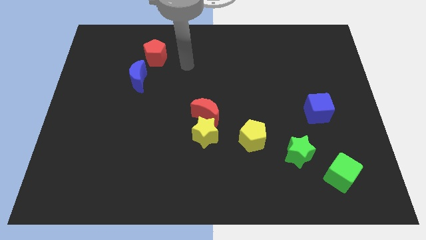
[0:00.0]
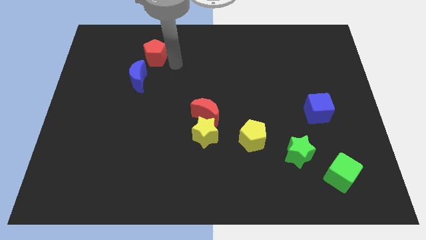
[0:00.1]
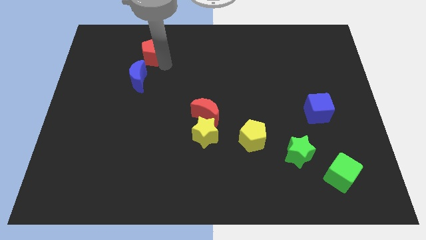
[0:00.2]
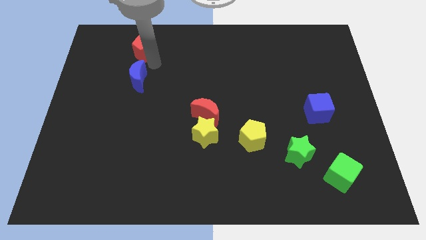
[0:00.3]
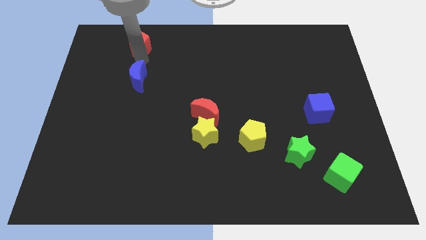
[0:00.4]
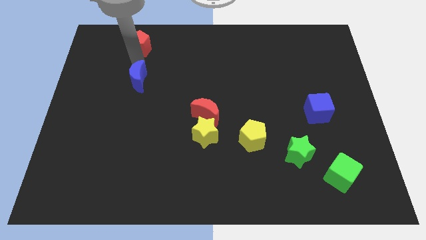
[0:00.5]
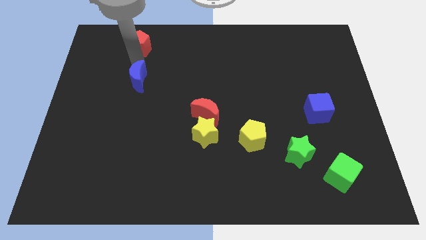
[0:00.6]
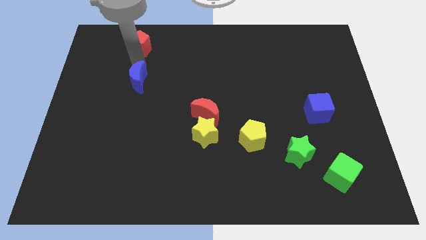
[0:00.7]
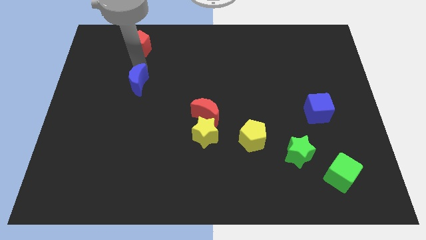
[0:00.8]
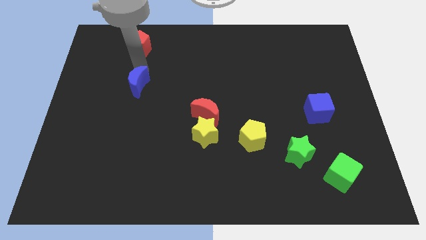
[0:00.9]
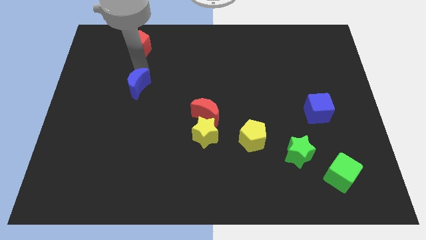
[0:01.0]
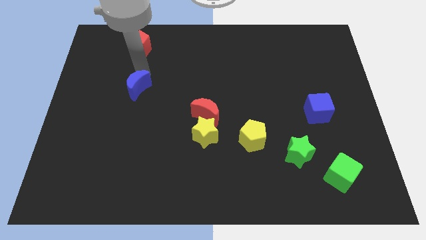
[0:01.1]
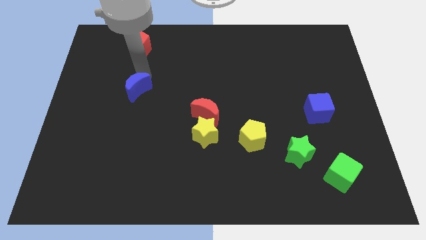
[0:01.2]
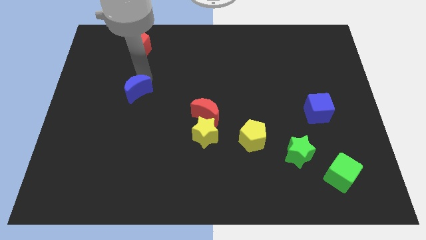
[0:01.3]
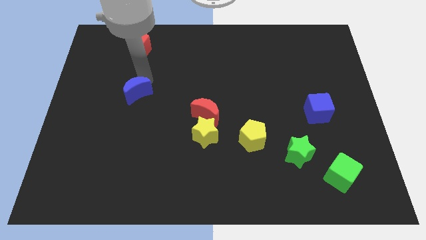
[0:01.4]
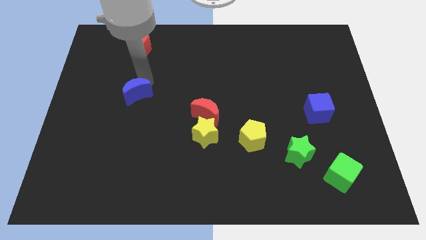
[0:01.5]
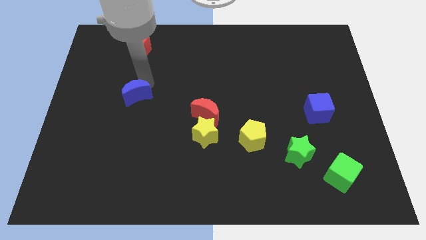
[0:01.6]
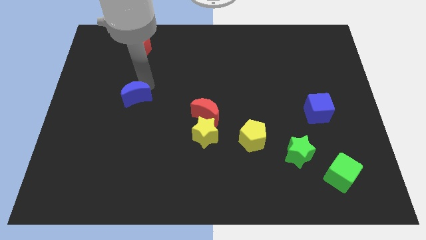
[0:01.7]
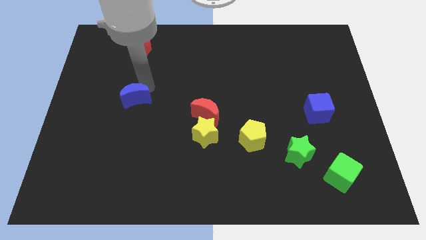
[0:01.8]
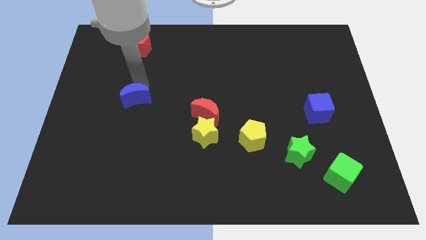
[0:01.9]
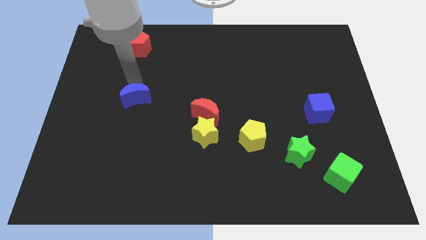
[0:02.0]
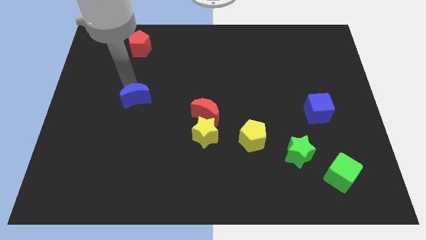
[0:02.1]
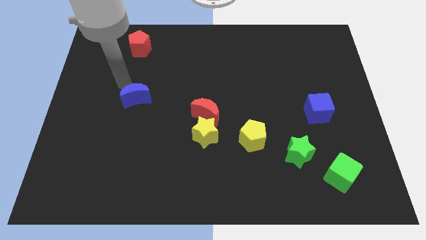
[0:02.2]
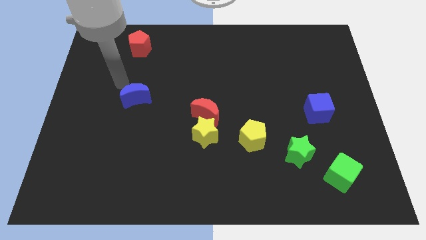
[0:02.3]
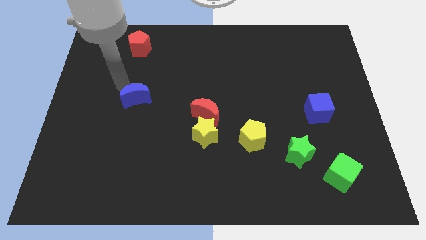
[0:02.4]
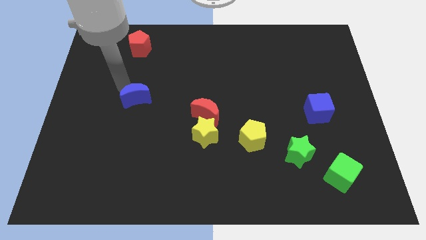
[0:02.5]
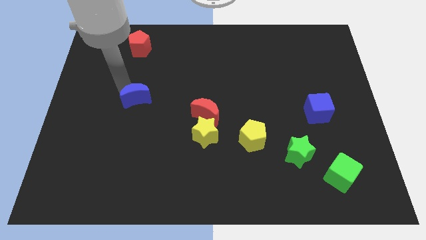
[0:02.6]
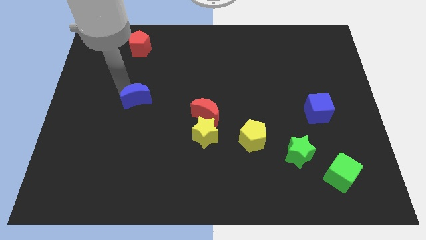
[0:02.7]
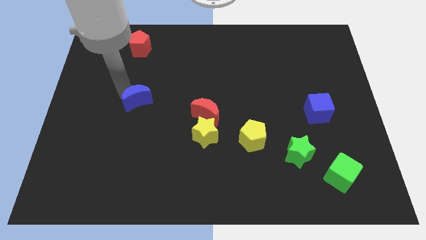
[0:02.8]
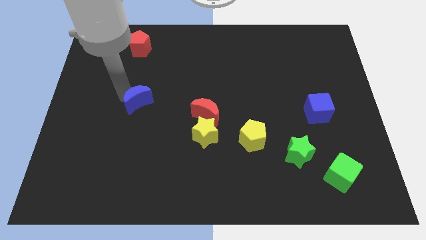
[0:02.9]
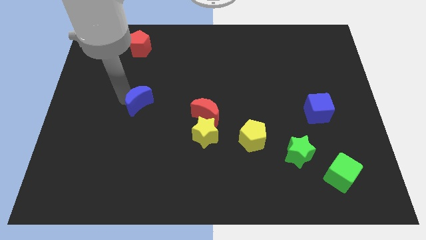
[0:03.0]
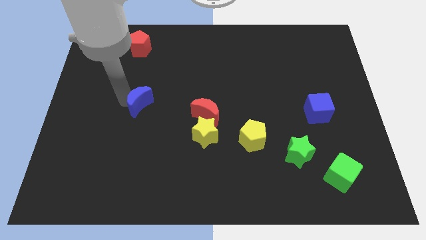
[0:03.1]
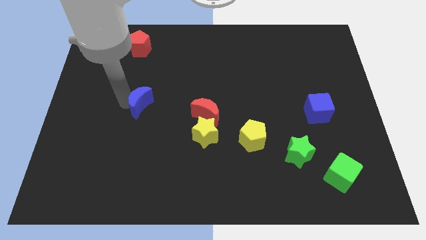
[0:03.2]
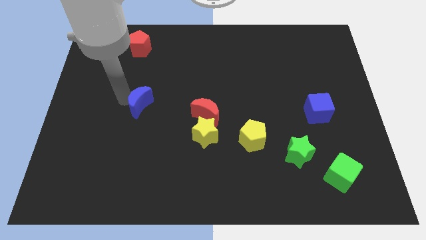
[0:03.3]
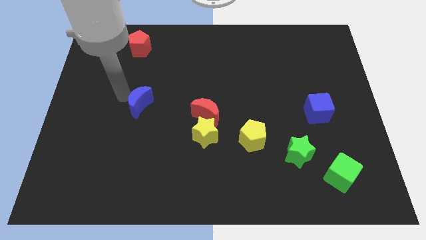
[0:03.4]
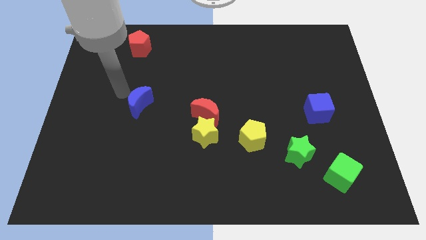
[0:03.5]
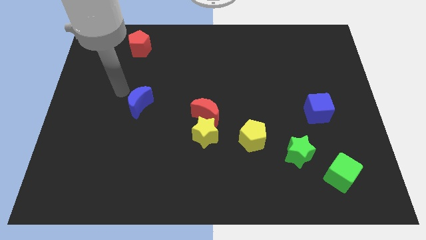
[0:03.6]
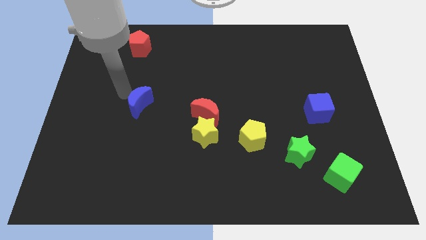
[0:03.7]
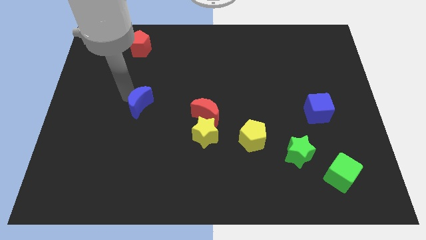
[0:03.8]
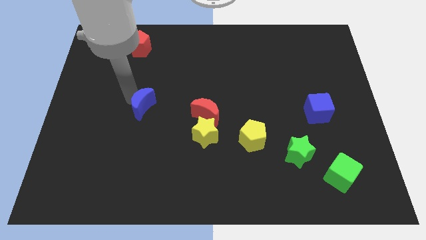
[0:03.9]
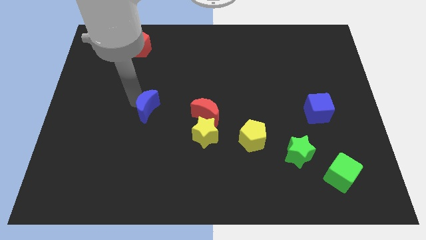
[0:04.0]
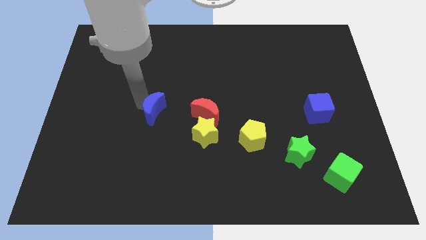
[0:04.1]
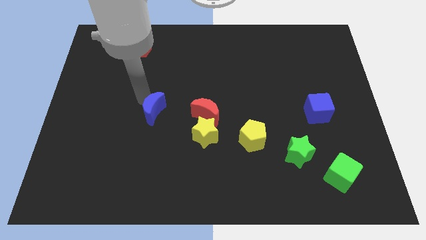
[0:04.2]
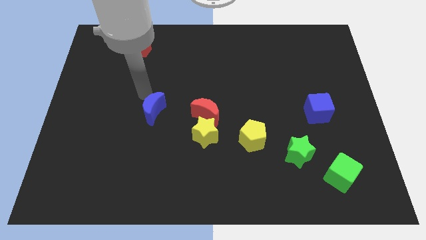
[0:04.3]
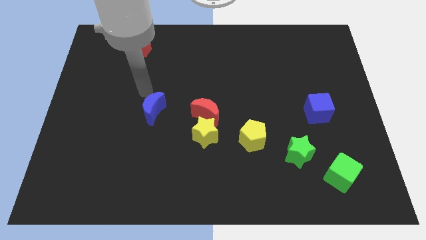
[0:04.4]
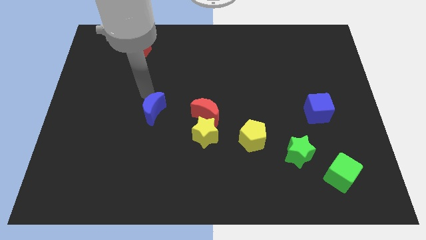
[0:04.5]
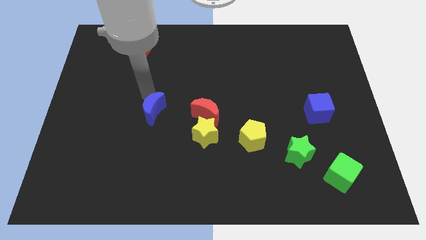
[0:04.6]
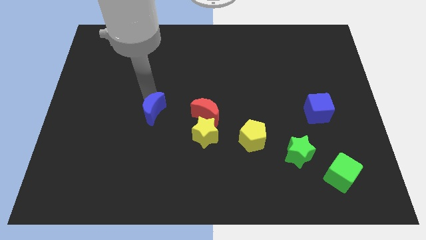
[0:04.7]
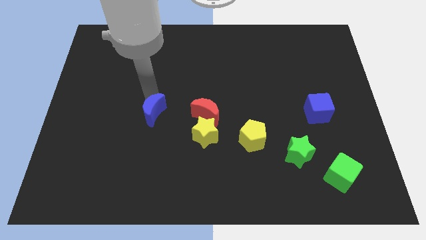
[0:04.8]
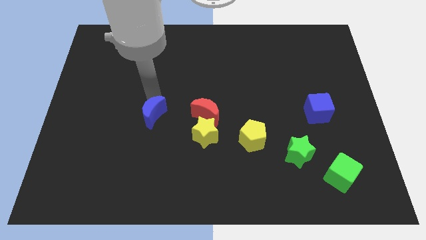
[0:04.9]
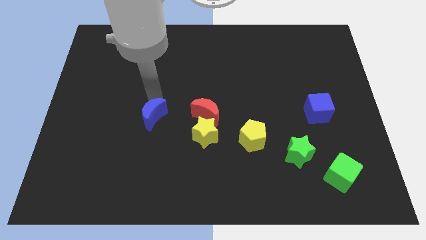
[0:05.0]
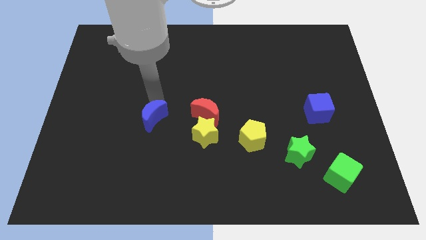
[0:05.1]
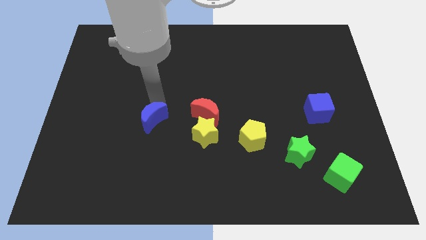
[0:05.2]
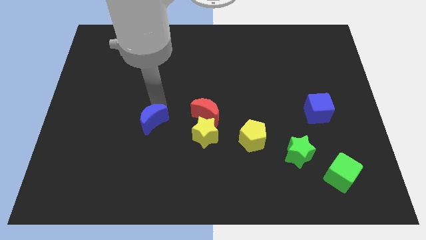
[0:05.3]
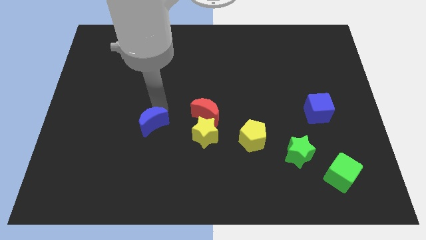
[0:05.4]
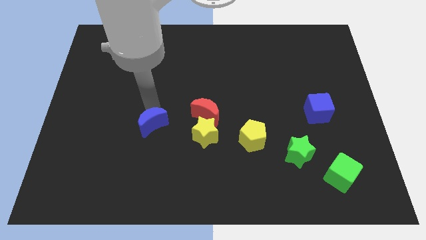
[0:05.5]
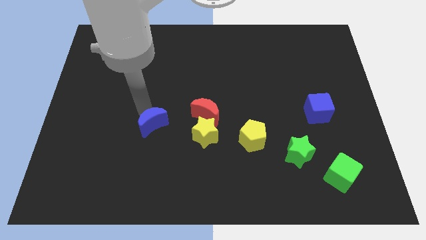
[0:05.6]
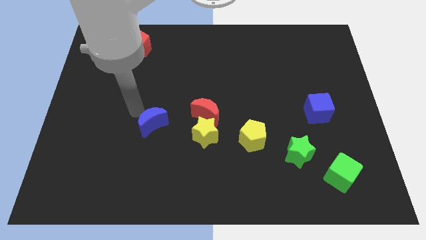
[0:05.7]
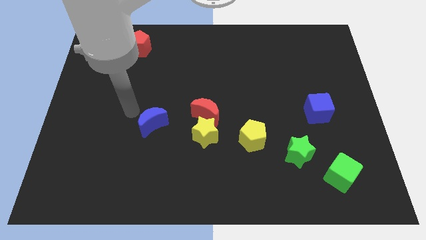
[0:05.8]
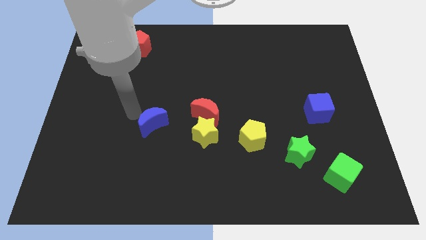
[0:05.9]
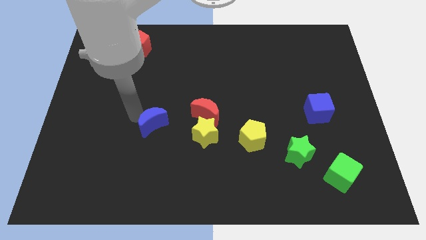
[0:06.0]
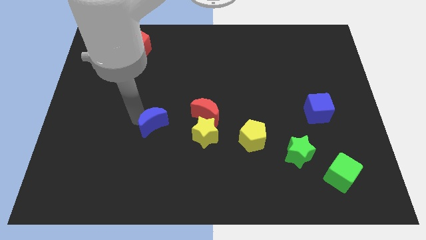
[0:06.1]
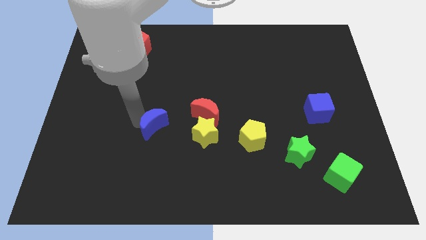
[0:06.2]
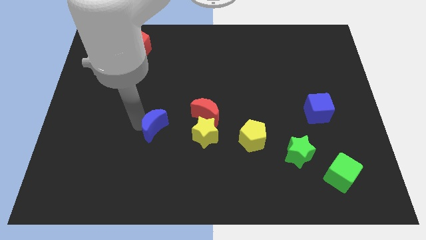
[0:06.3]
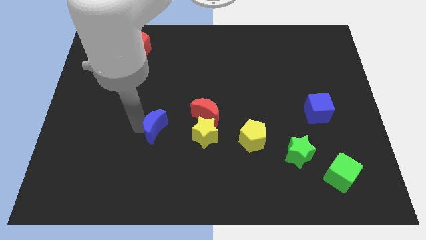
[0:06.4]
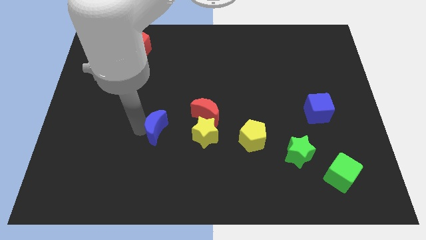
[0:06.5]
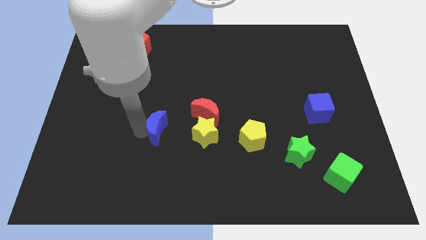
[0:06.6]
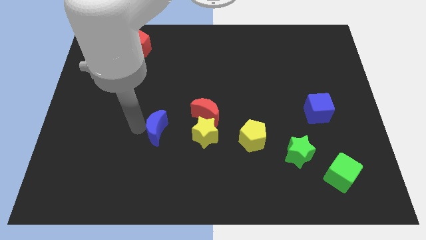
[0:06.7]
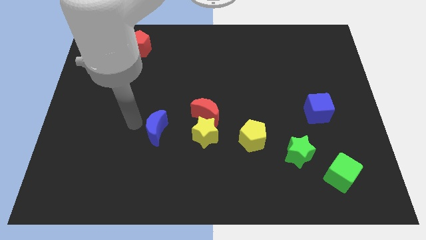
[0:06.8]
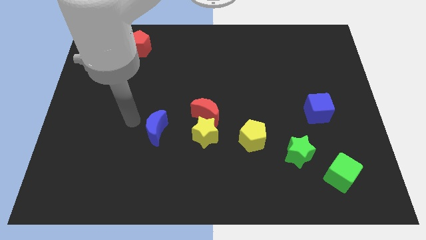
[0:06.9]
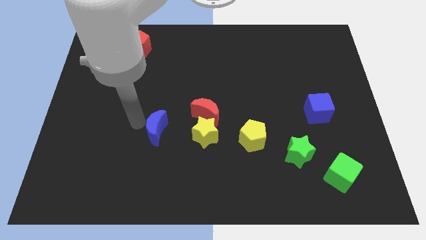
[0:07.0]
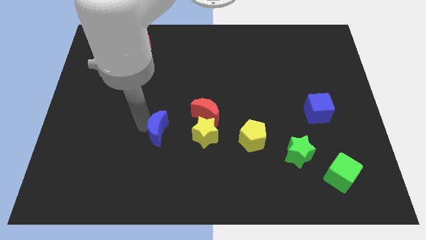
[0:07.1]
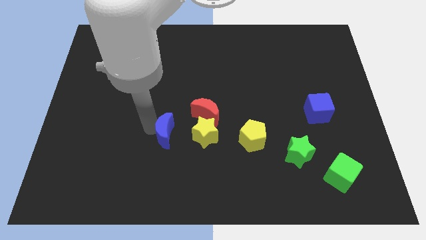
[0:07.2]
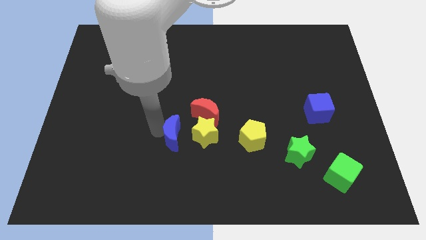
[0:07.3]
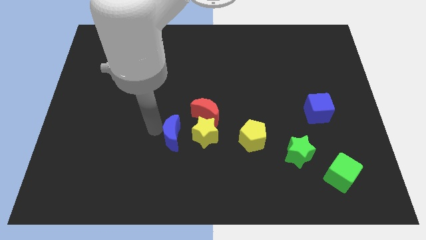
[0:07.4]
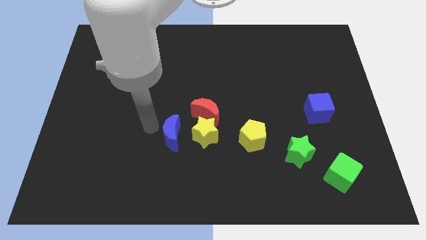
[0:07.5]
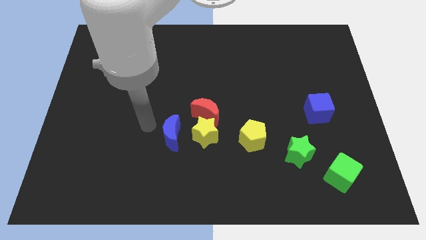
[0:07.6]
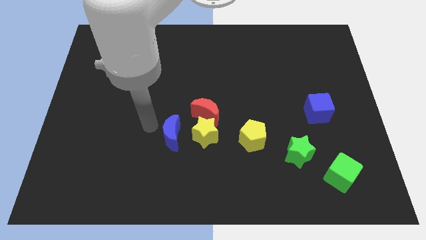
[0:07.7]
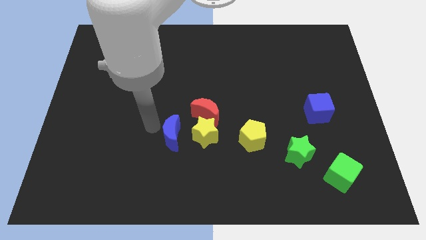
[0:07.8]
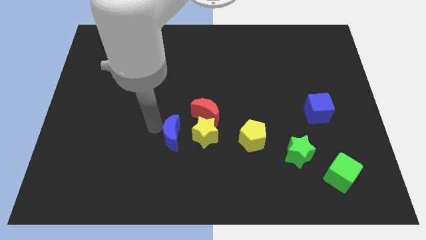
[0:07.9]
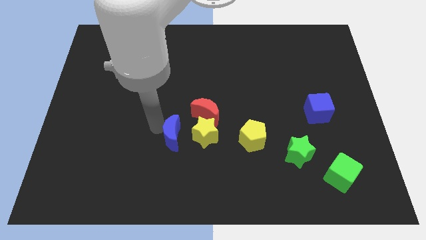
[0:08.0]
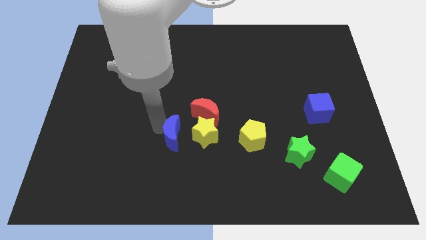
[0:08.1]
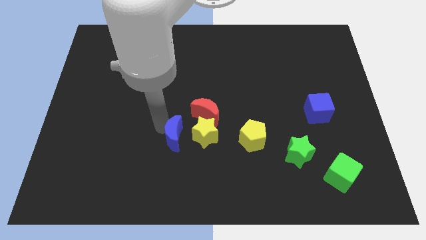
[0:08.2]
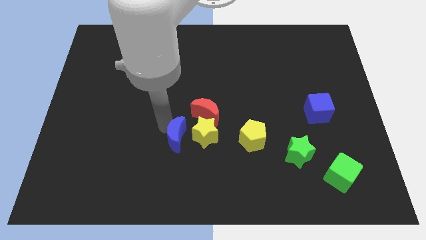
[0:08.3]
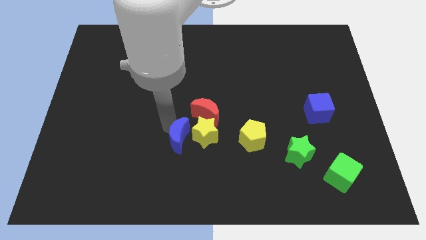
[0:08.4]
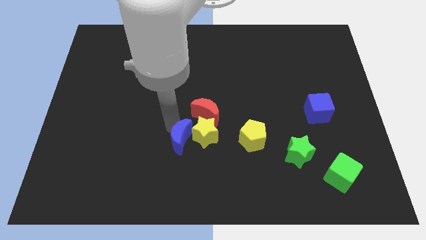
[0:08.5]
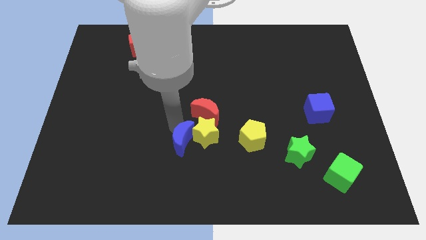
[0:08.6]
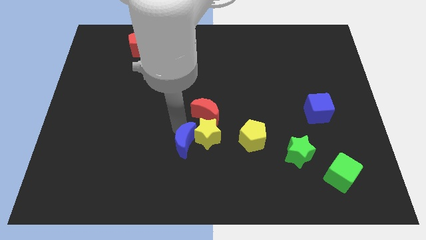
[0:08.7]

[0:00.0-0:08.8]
put the blue moon to the bottom side of the red moon
